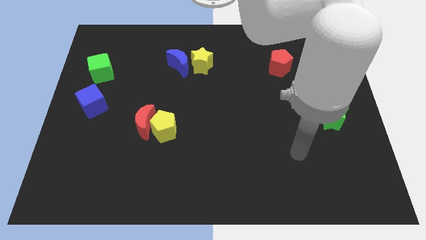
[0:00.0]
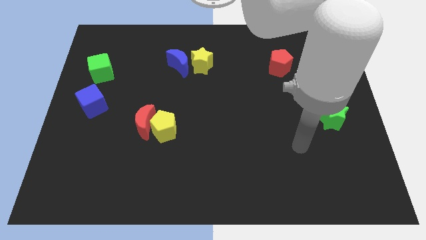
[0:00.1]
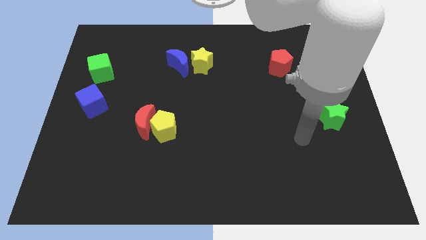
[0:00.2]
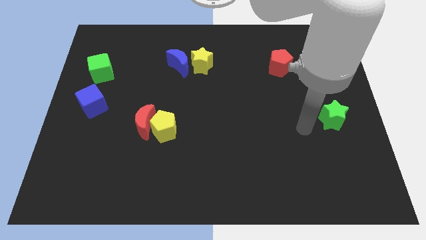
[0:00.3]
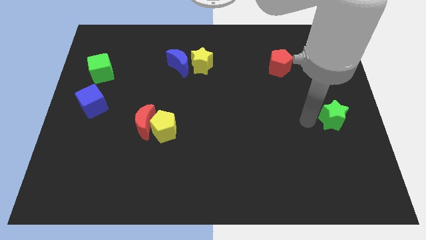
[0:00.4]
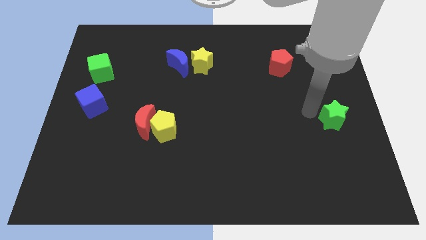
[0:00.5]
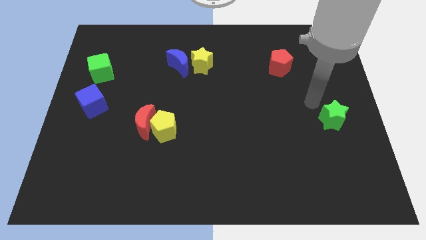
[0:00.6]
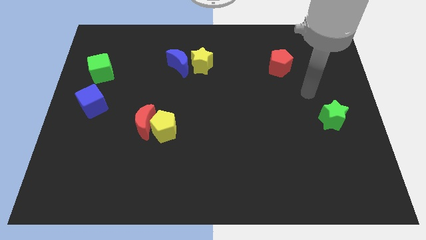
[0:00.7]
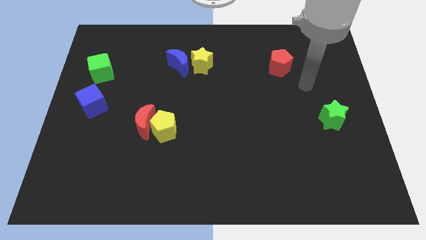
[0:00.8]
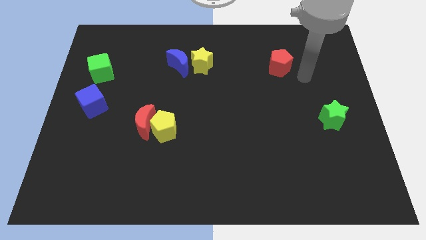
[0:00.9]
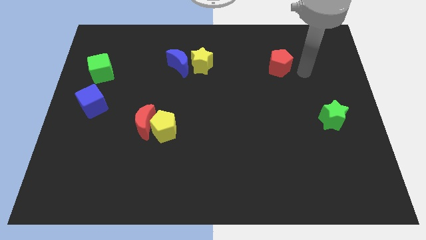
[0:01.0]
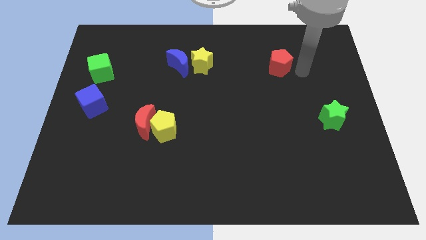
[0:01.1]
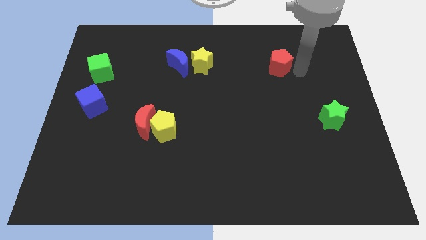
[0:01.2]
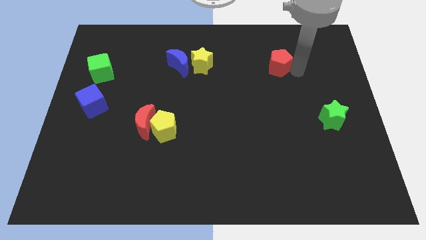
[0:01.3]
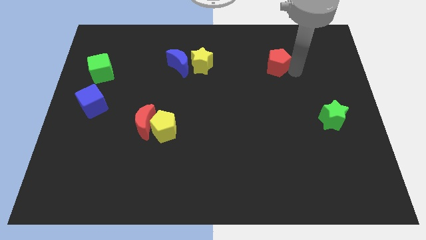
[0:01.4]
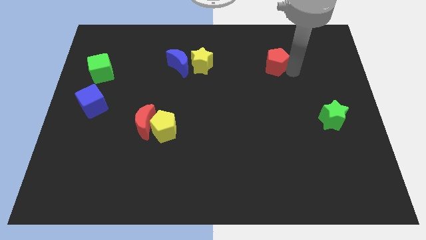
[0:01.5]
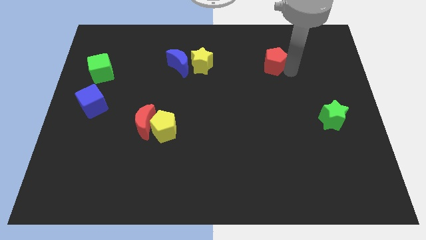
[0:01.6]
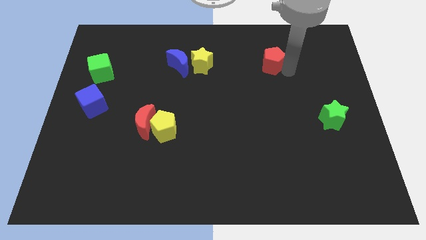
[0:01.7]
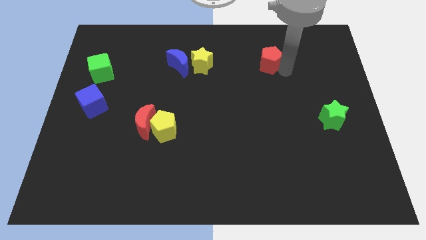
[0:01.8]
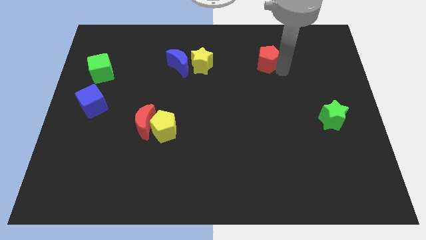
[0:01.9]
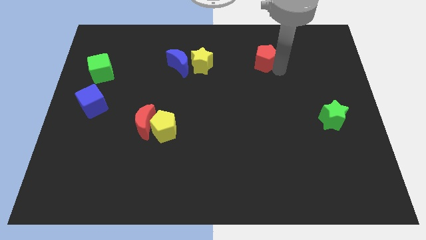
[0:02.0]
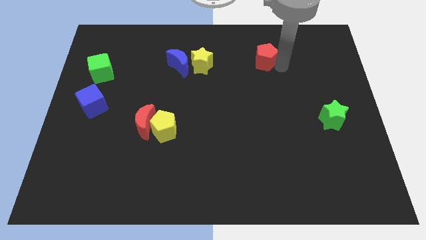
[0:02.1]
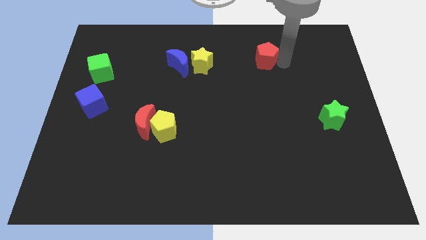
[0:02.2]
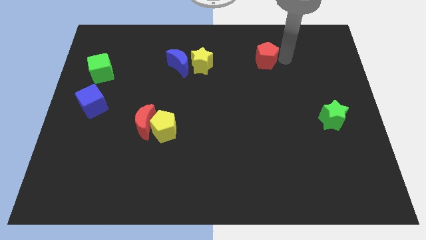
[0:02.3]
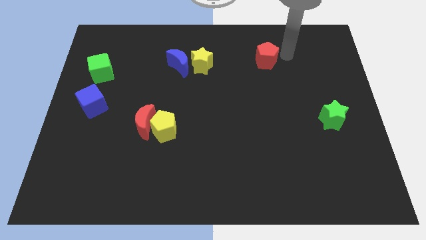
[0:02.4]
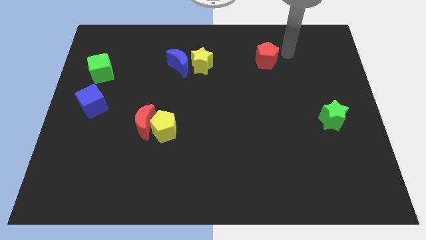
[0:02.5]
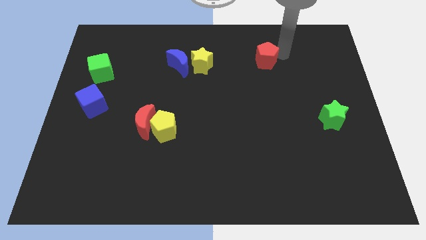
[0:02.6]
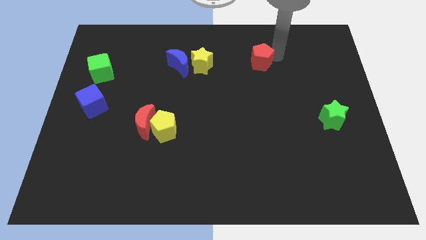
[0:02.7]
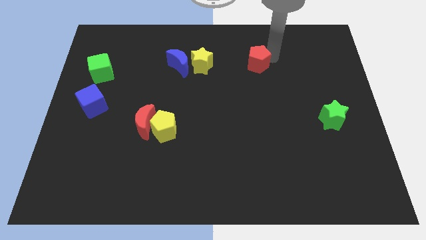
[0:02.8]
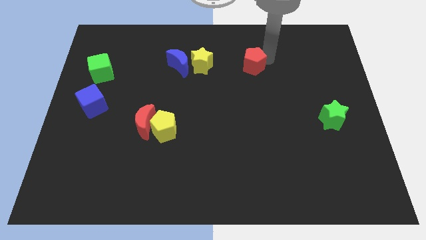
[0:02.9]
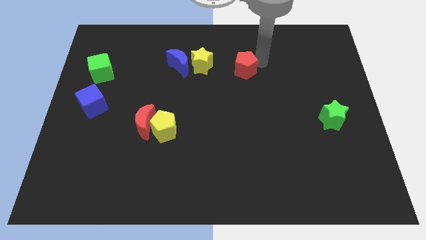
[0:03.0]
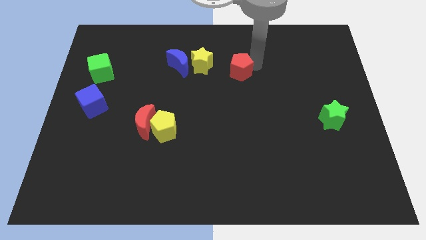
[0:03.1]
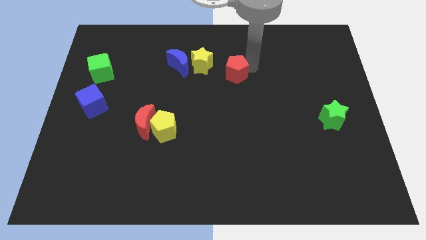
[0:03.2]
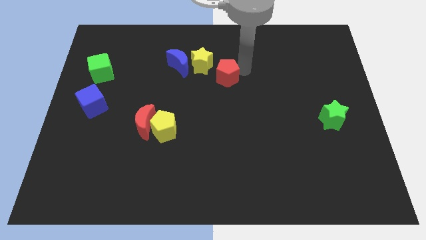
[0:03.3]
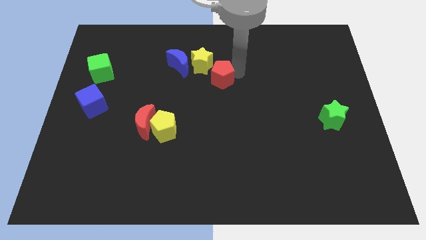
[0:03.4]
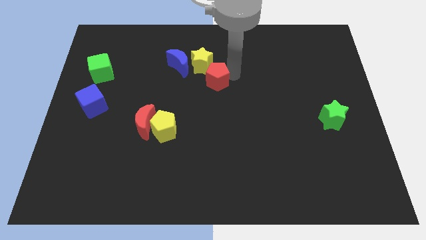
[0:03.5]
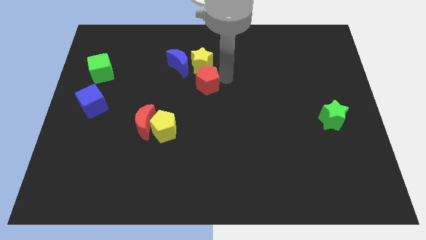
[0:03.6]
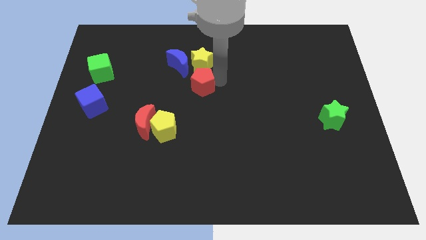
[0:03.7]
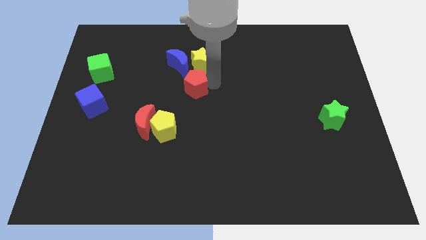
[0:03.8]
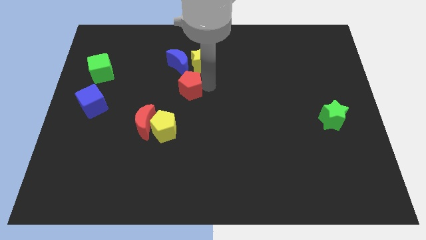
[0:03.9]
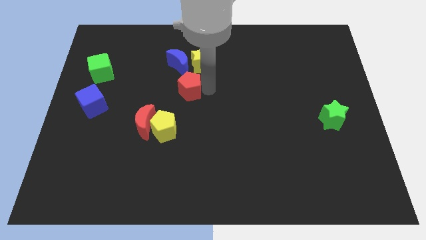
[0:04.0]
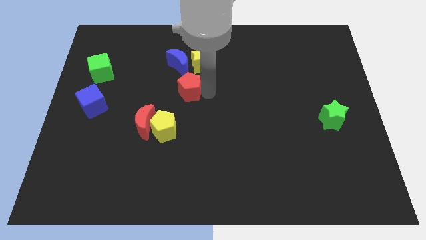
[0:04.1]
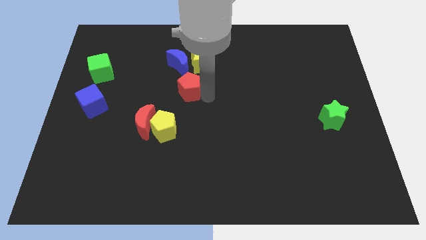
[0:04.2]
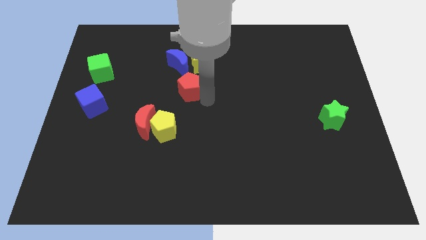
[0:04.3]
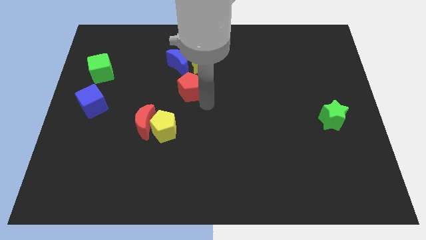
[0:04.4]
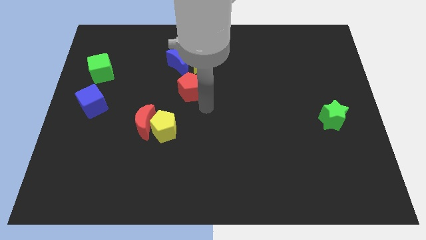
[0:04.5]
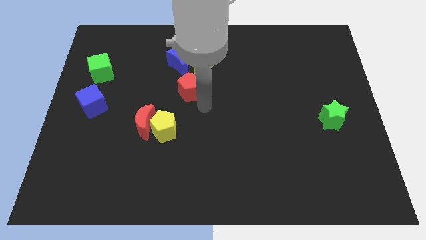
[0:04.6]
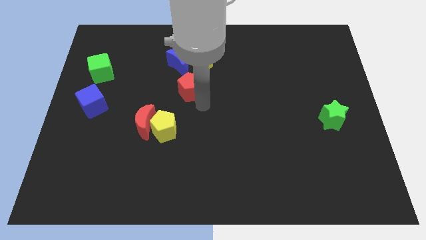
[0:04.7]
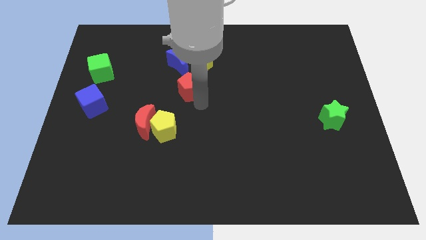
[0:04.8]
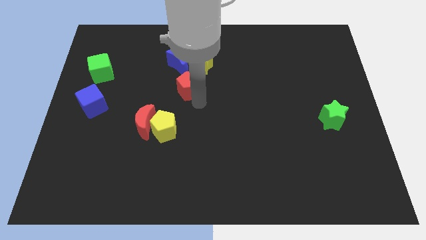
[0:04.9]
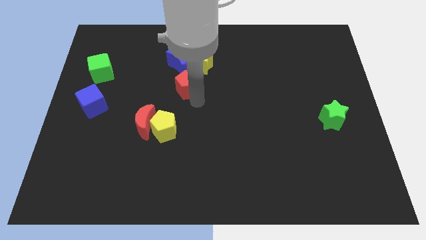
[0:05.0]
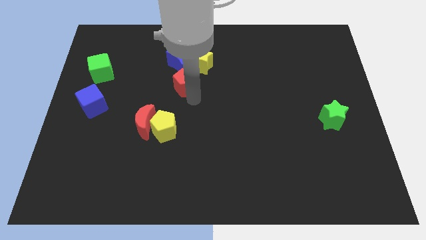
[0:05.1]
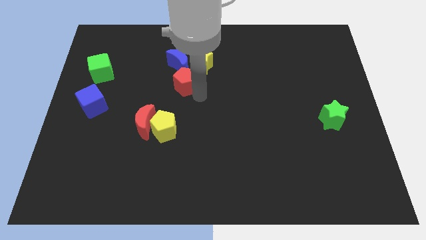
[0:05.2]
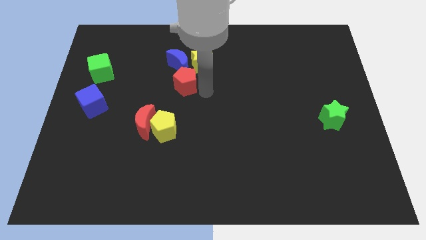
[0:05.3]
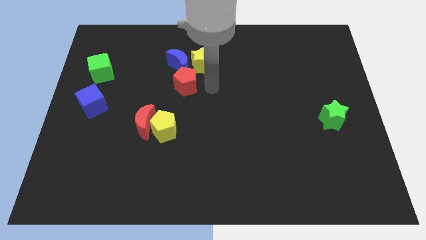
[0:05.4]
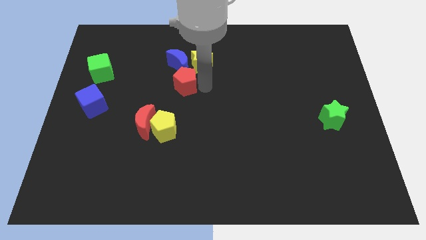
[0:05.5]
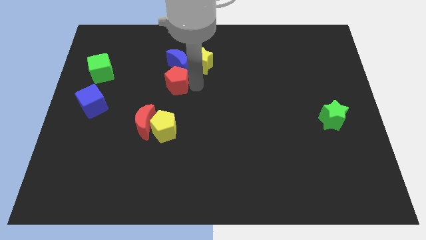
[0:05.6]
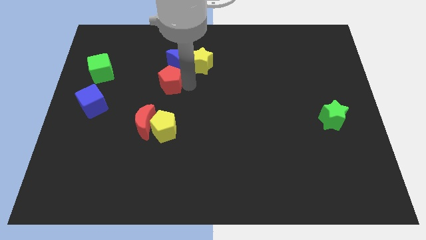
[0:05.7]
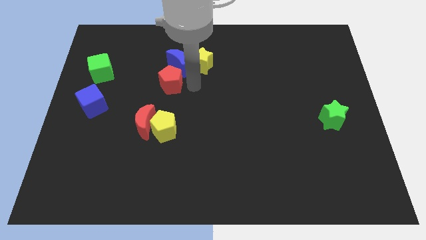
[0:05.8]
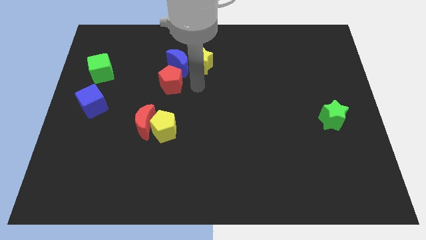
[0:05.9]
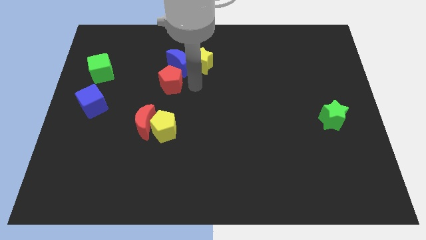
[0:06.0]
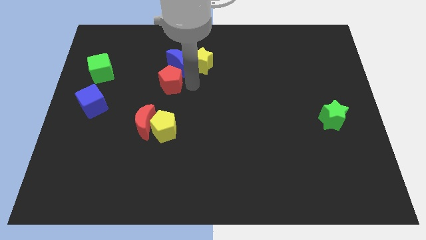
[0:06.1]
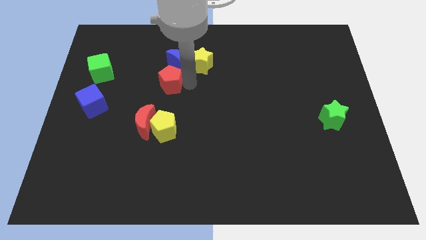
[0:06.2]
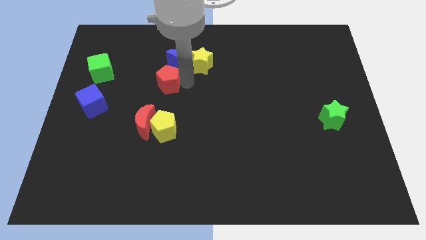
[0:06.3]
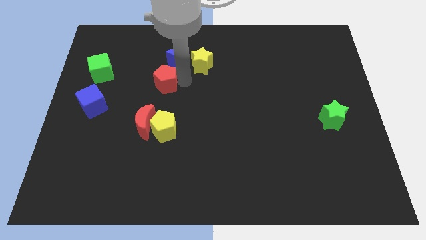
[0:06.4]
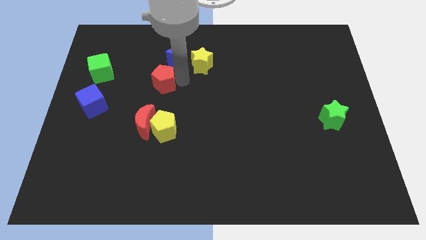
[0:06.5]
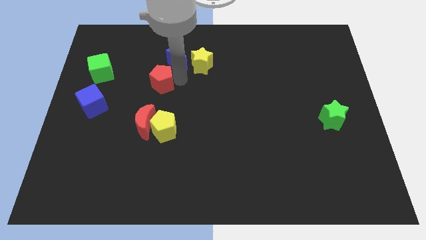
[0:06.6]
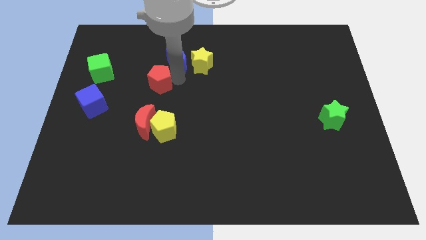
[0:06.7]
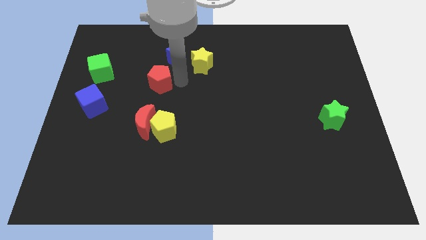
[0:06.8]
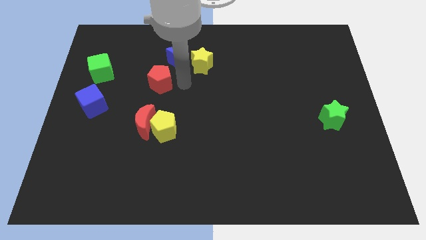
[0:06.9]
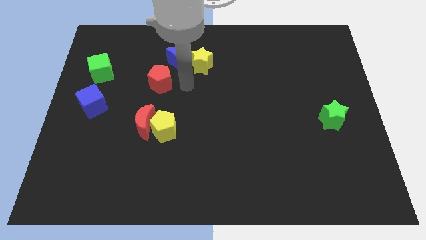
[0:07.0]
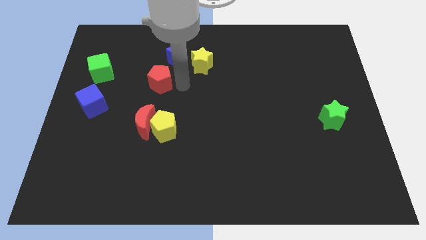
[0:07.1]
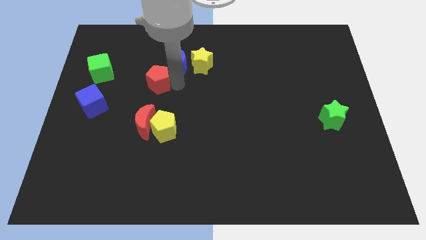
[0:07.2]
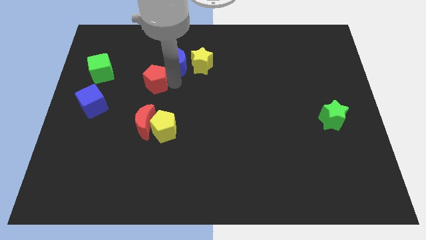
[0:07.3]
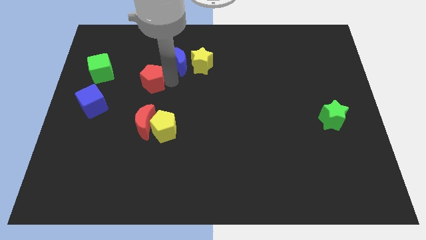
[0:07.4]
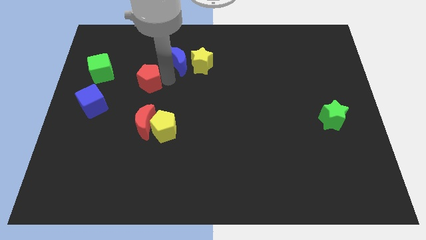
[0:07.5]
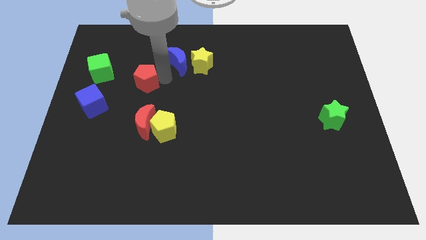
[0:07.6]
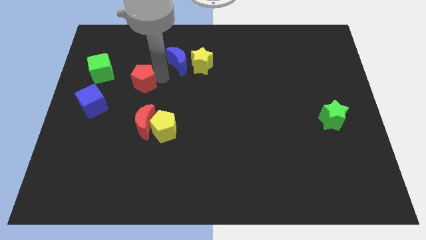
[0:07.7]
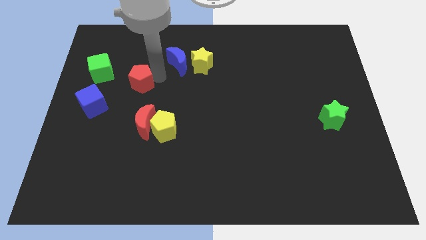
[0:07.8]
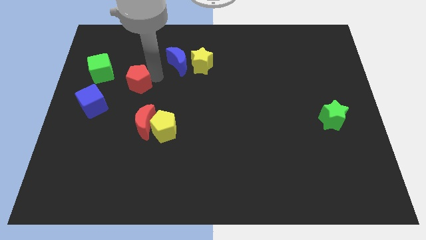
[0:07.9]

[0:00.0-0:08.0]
slide the red pentagon diagonally down and to the right of the green cube
